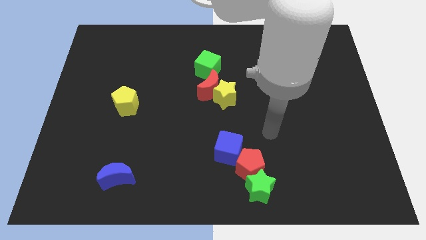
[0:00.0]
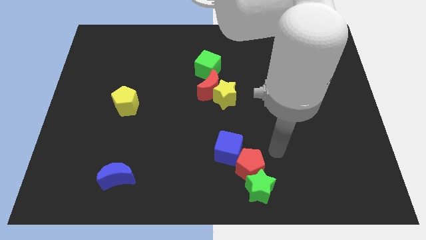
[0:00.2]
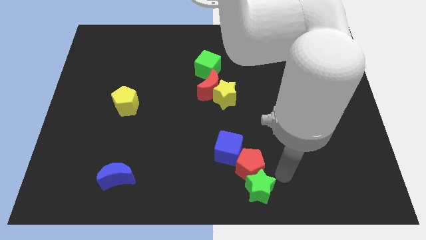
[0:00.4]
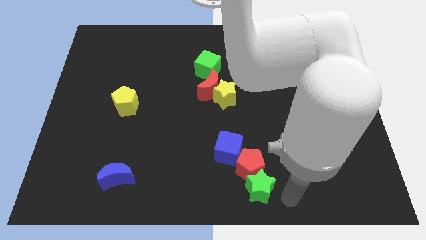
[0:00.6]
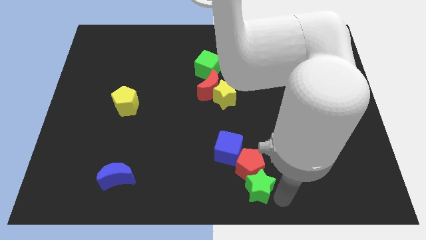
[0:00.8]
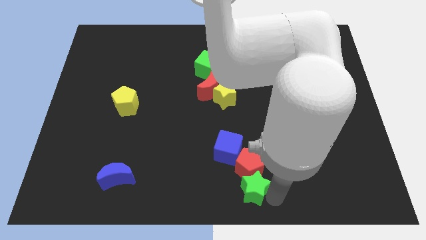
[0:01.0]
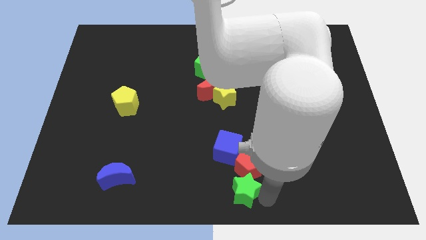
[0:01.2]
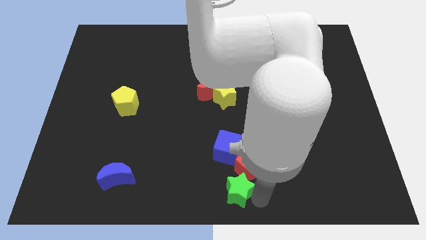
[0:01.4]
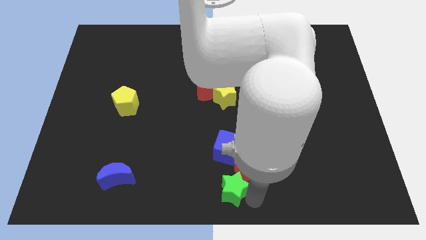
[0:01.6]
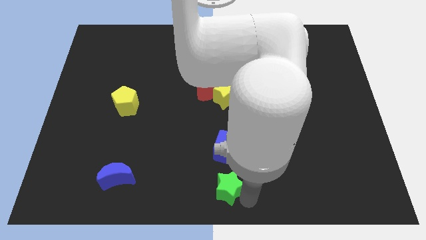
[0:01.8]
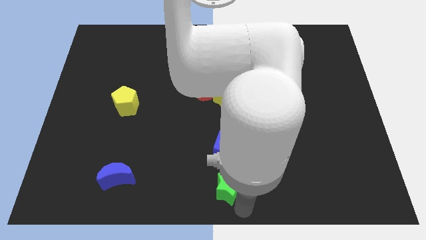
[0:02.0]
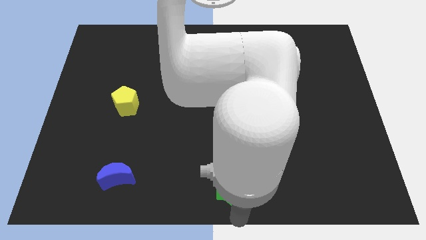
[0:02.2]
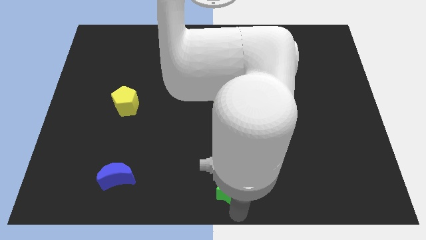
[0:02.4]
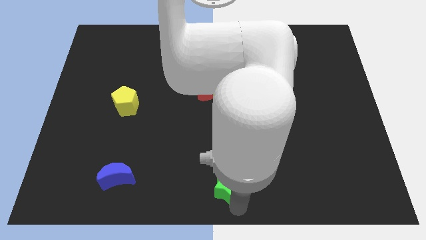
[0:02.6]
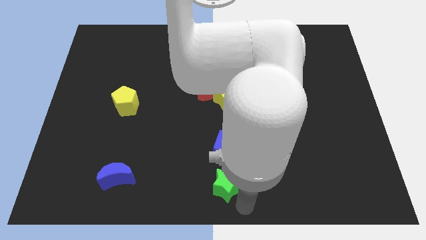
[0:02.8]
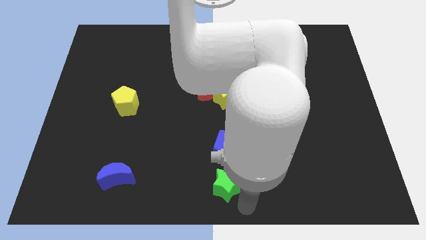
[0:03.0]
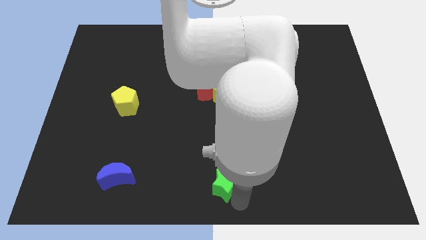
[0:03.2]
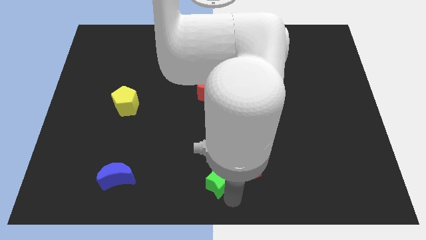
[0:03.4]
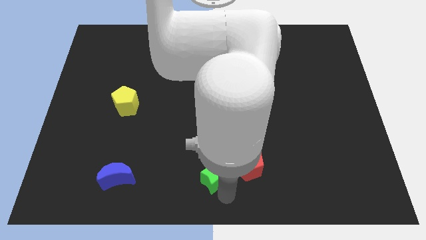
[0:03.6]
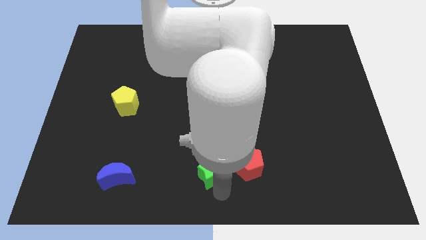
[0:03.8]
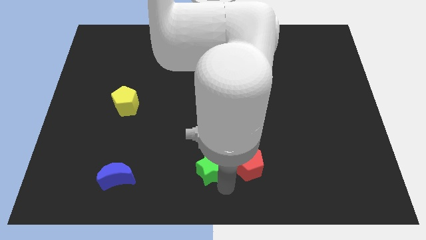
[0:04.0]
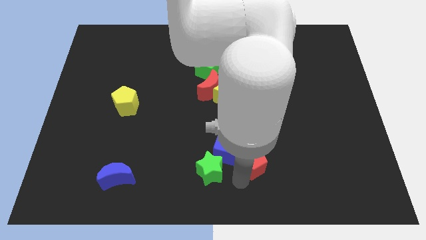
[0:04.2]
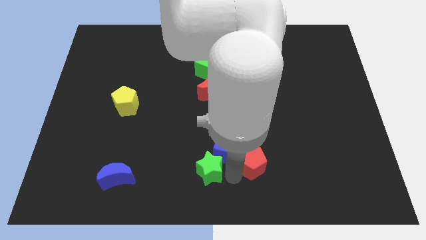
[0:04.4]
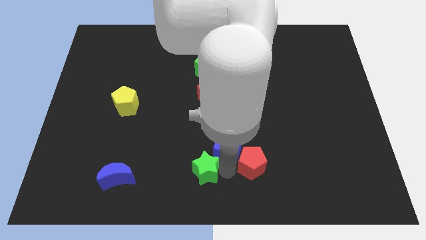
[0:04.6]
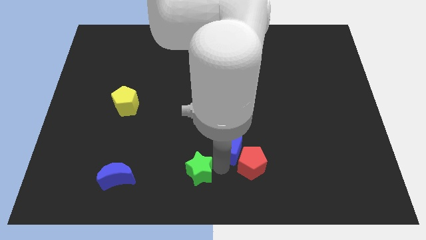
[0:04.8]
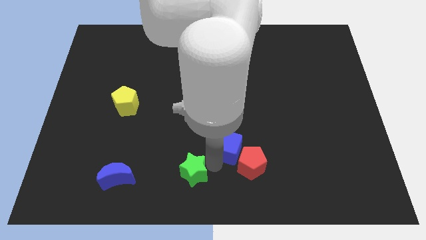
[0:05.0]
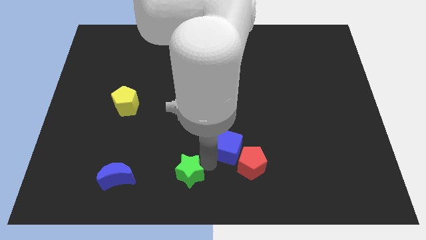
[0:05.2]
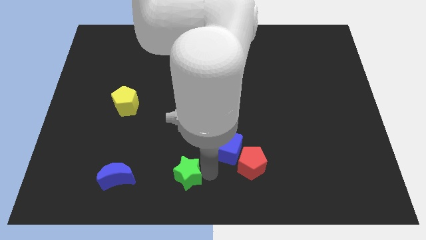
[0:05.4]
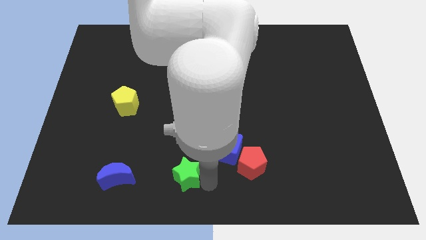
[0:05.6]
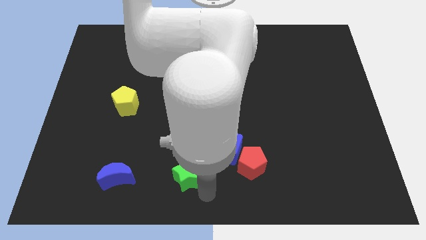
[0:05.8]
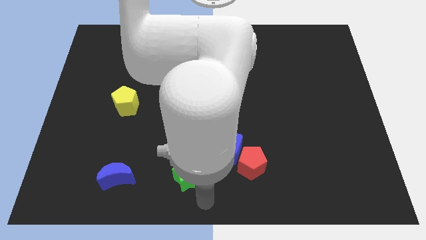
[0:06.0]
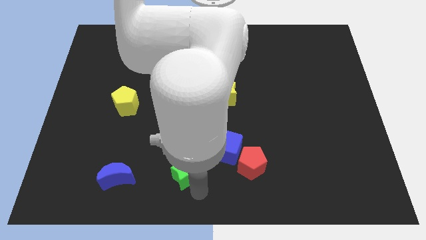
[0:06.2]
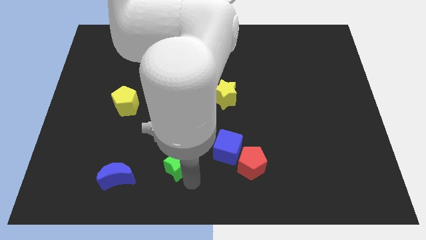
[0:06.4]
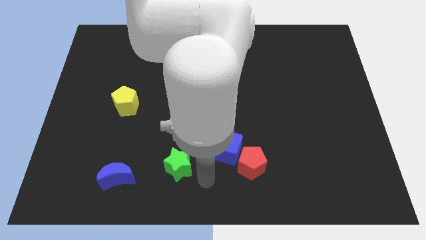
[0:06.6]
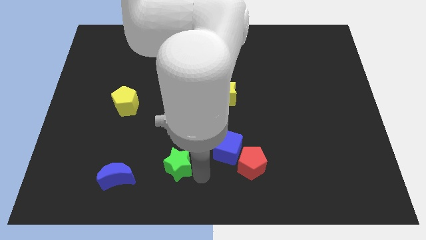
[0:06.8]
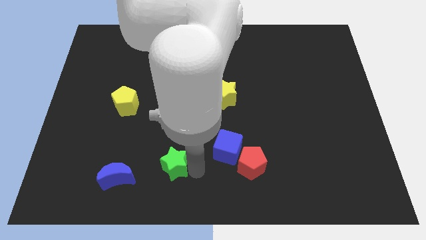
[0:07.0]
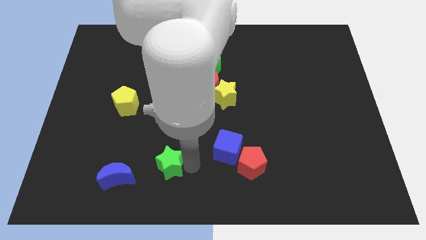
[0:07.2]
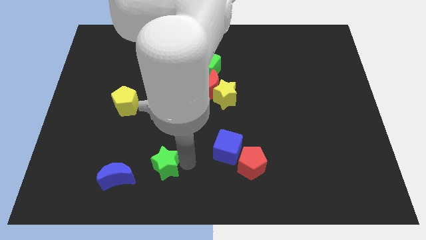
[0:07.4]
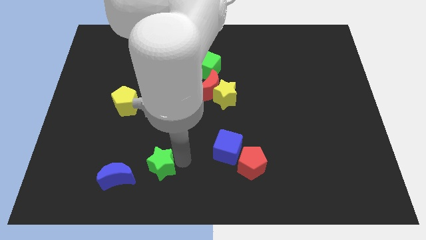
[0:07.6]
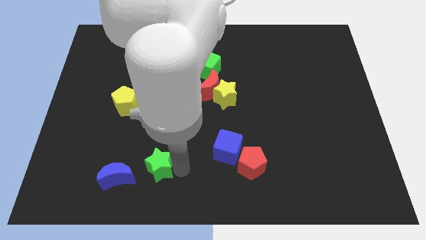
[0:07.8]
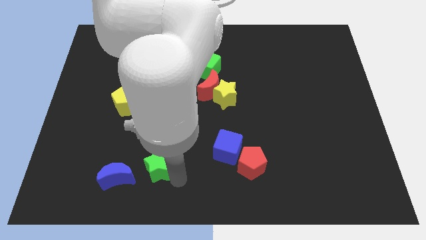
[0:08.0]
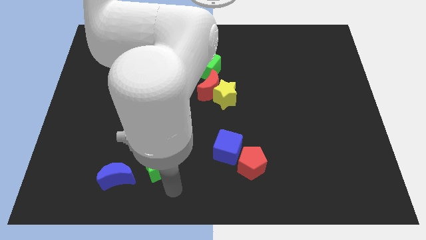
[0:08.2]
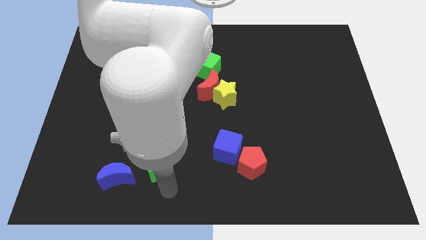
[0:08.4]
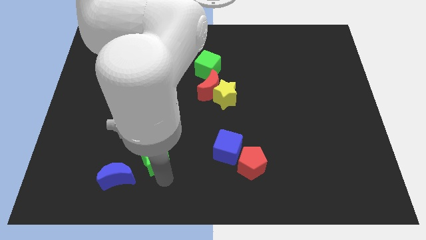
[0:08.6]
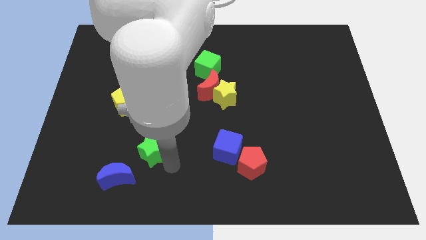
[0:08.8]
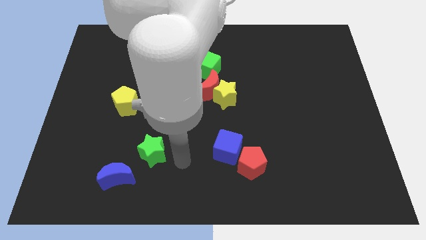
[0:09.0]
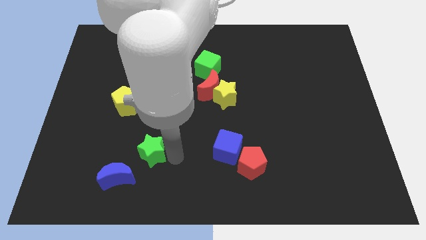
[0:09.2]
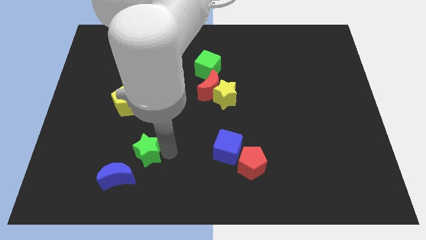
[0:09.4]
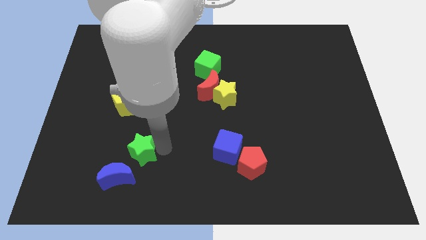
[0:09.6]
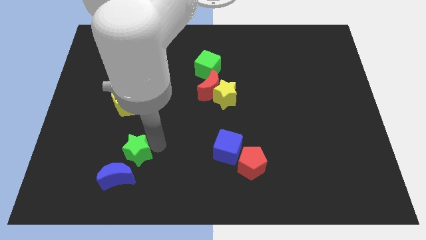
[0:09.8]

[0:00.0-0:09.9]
slide the green star to the bottom of the yellow pentagon

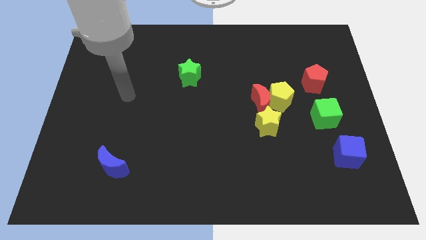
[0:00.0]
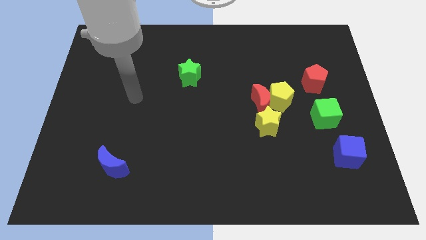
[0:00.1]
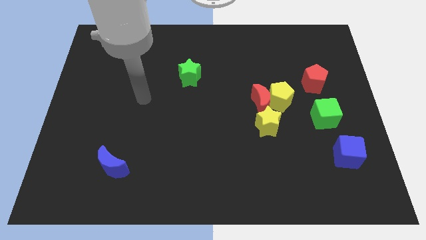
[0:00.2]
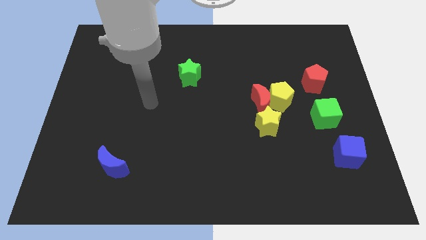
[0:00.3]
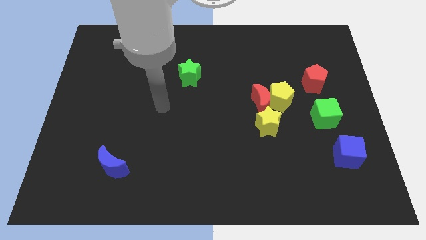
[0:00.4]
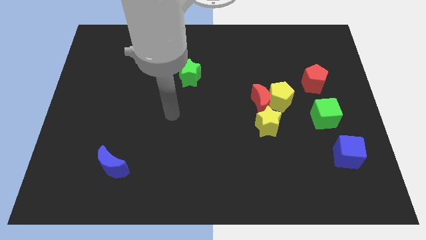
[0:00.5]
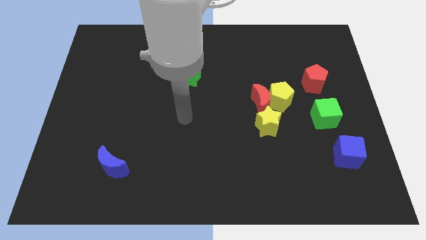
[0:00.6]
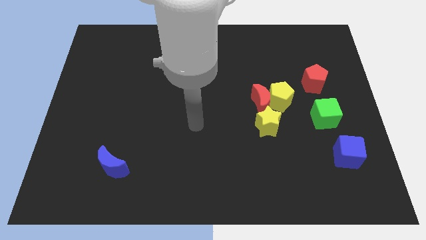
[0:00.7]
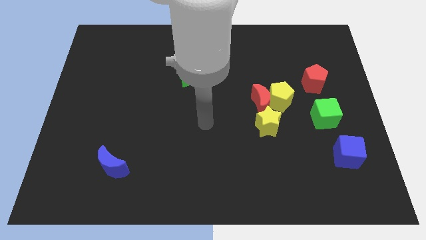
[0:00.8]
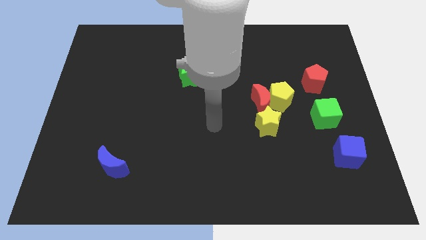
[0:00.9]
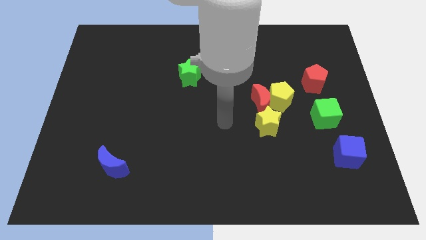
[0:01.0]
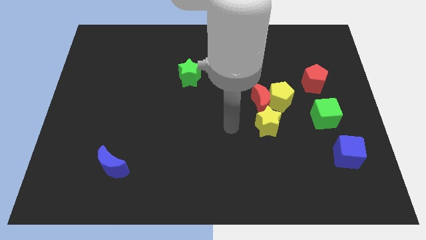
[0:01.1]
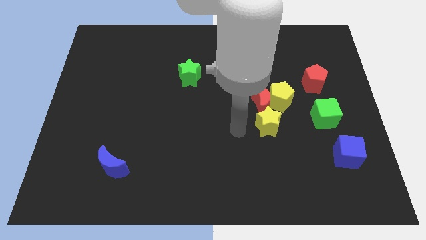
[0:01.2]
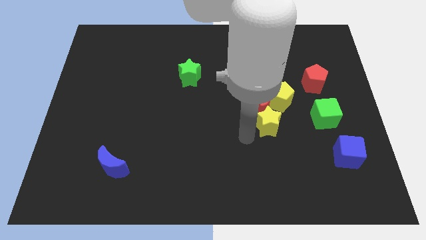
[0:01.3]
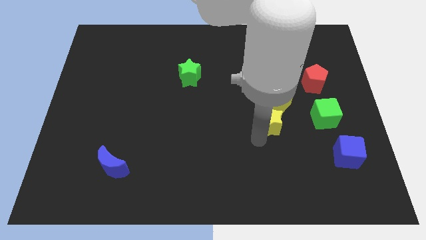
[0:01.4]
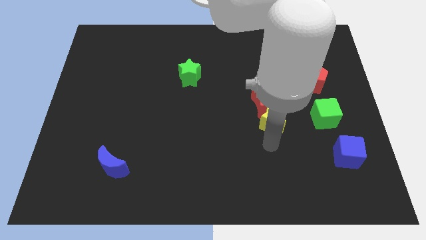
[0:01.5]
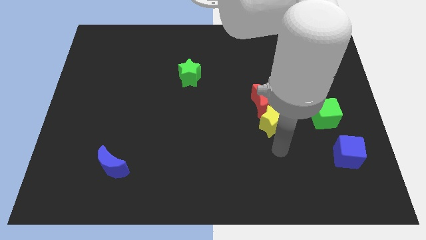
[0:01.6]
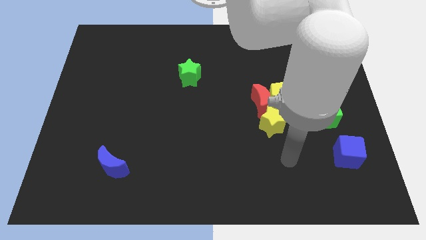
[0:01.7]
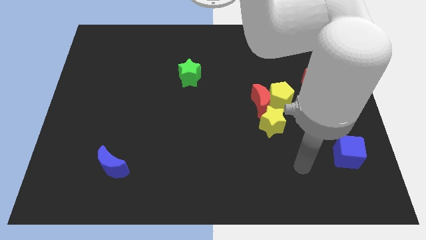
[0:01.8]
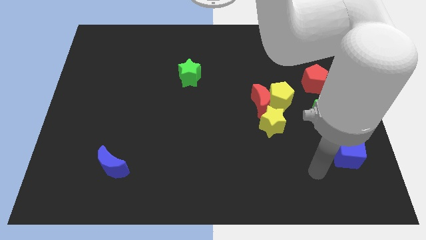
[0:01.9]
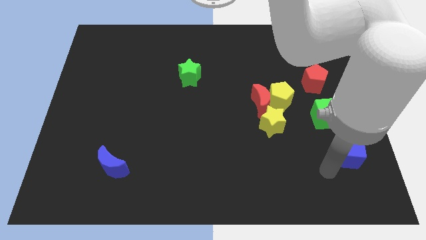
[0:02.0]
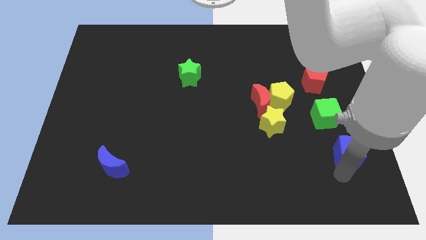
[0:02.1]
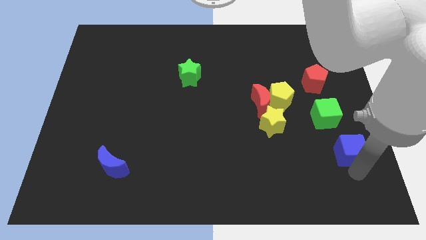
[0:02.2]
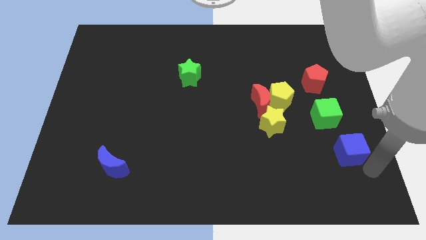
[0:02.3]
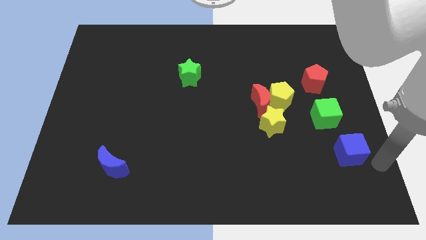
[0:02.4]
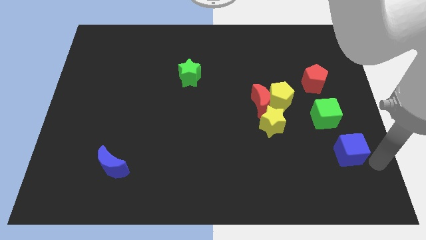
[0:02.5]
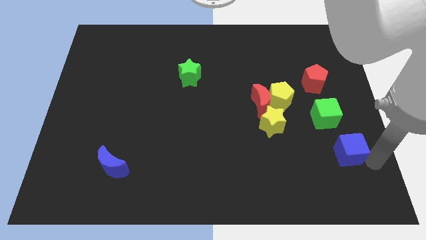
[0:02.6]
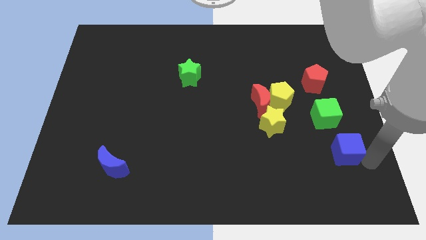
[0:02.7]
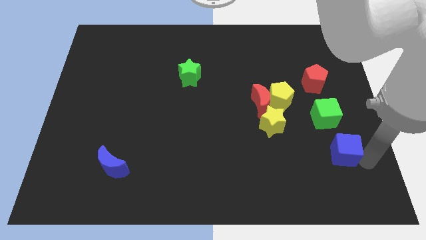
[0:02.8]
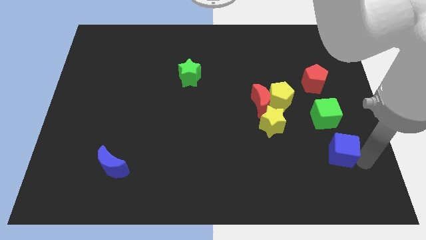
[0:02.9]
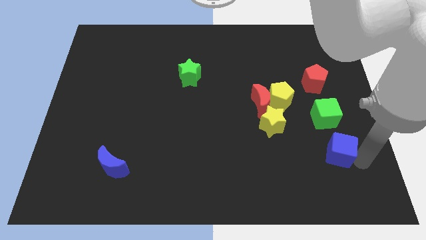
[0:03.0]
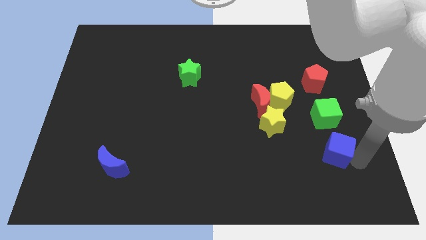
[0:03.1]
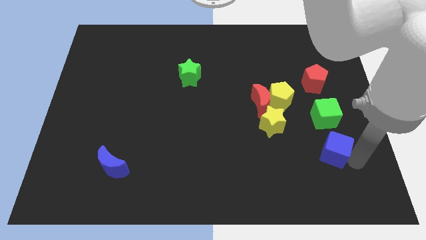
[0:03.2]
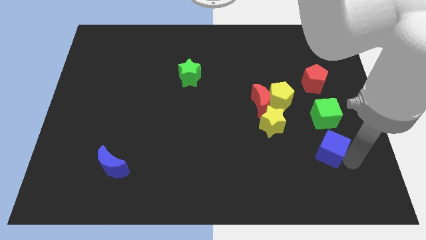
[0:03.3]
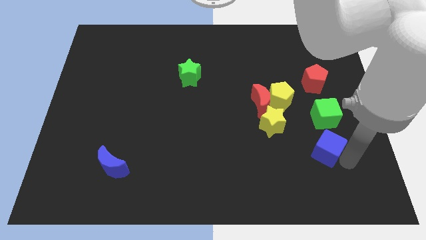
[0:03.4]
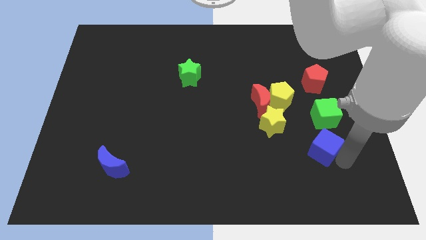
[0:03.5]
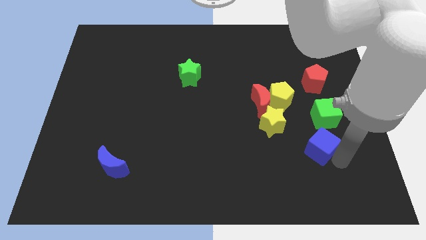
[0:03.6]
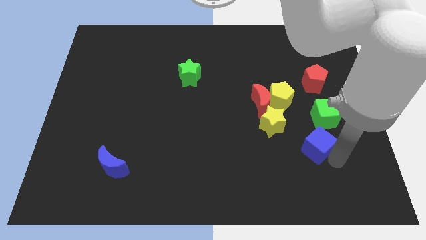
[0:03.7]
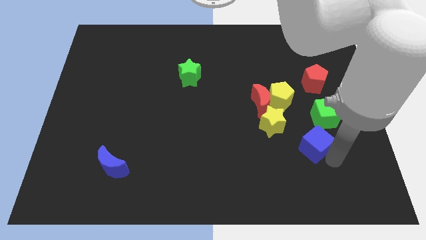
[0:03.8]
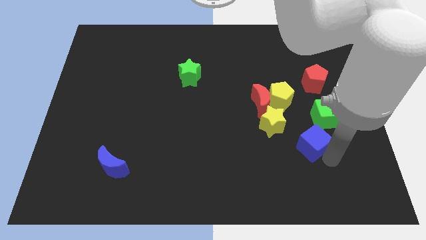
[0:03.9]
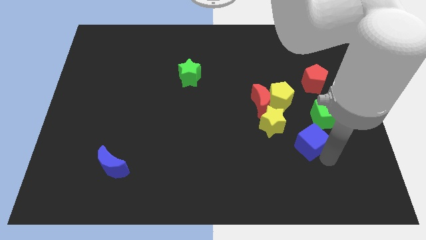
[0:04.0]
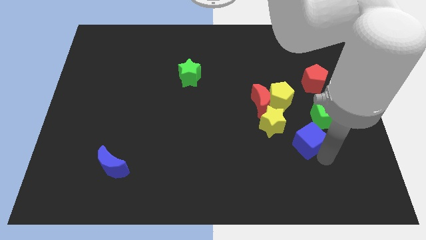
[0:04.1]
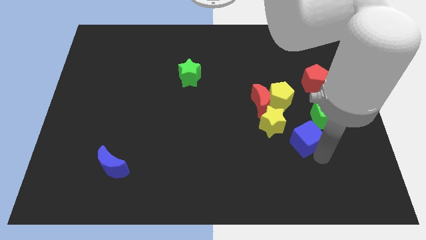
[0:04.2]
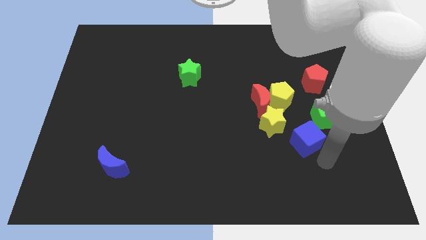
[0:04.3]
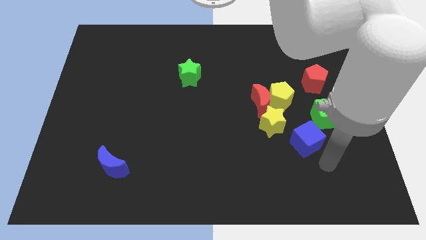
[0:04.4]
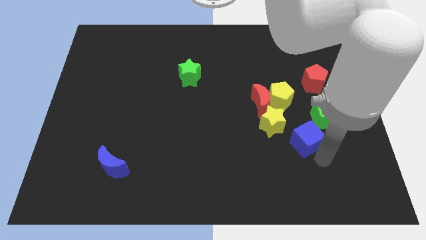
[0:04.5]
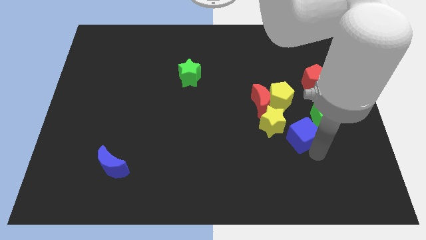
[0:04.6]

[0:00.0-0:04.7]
slide the blue cube diagonally down and to the right of the red moon
